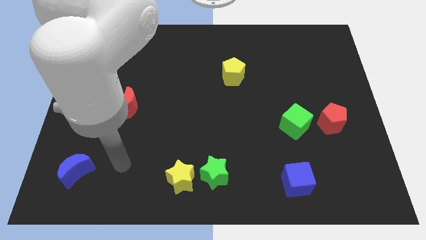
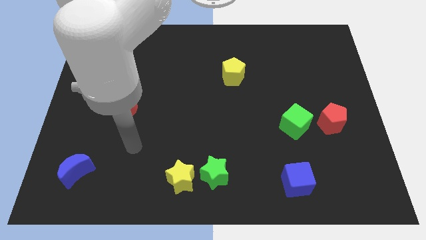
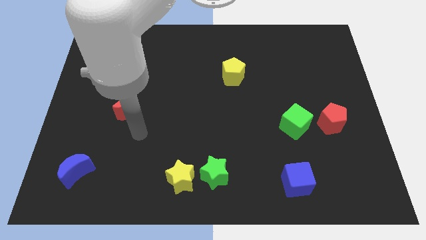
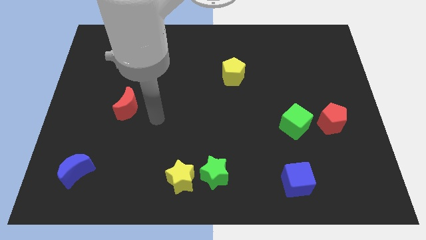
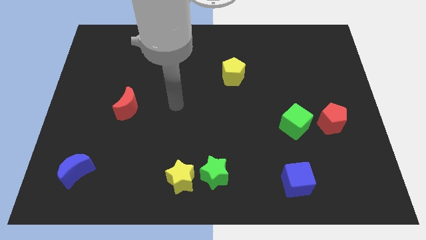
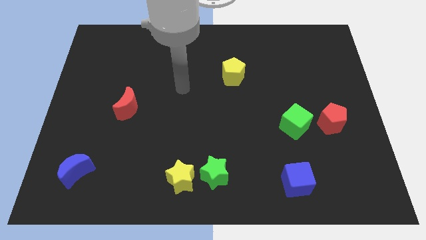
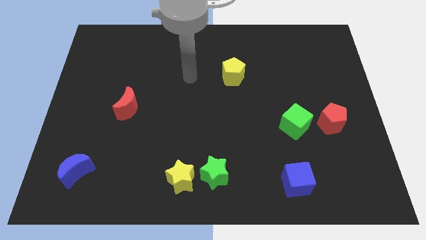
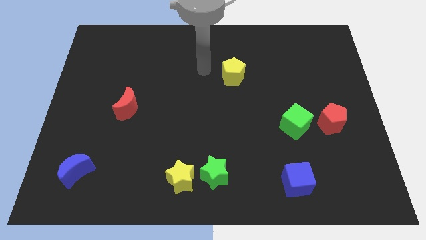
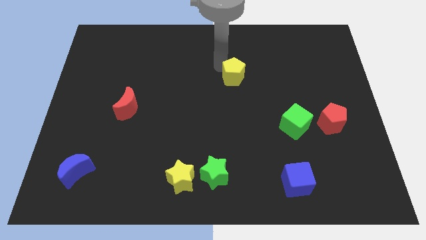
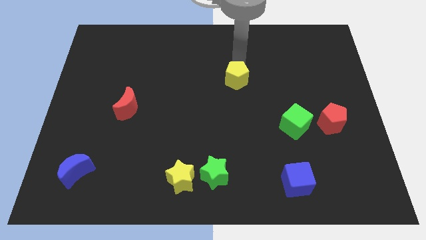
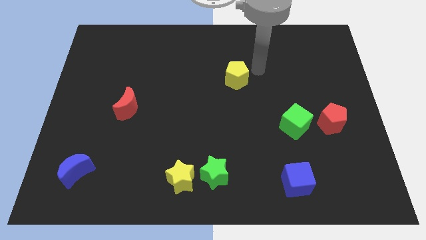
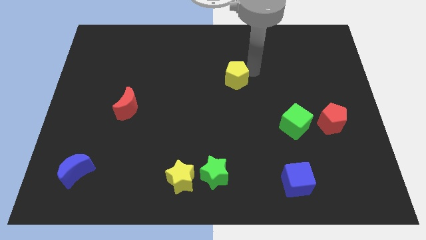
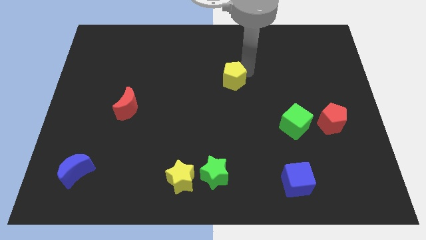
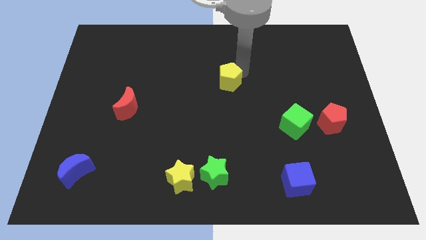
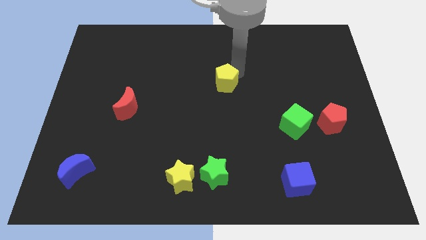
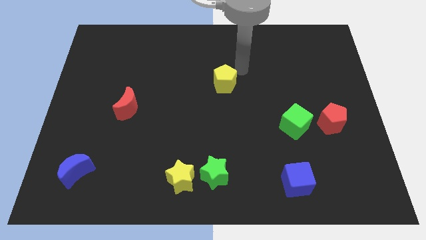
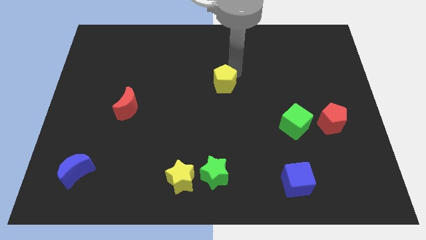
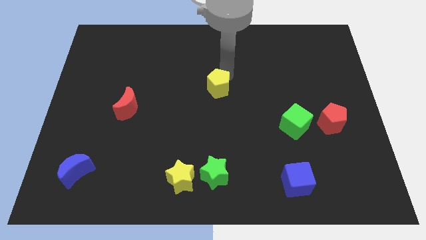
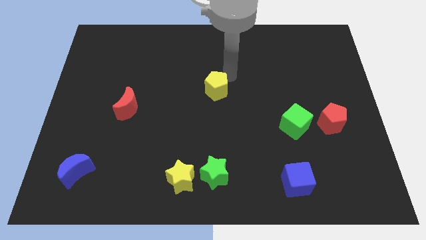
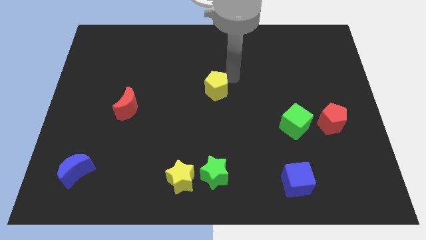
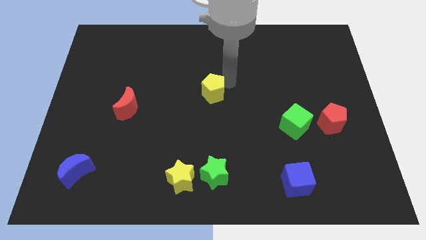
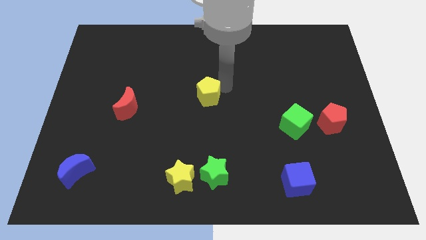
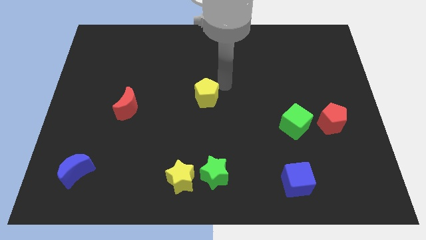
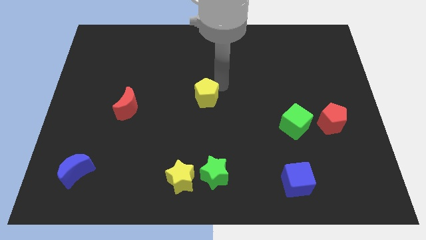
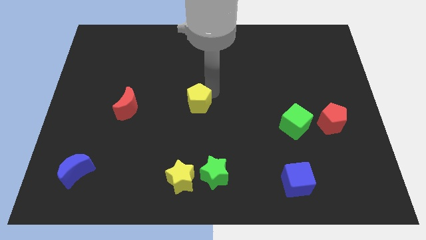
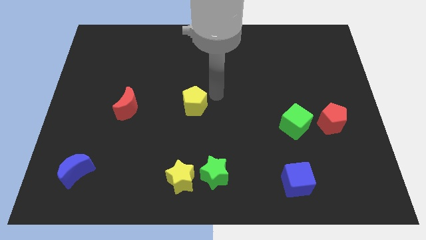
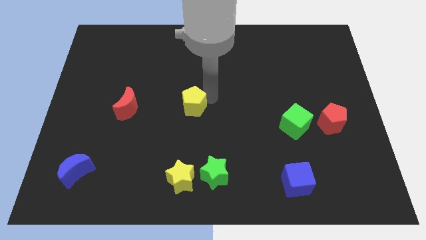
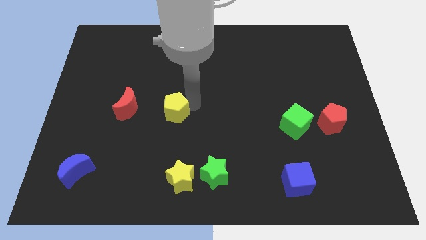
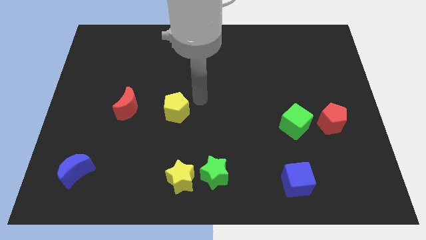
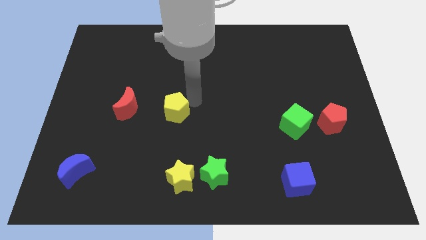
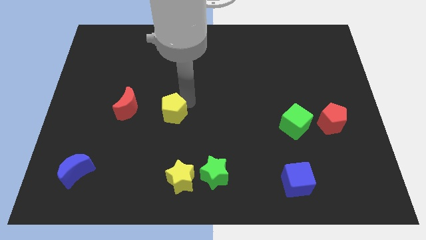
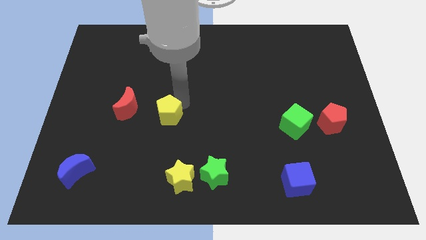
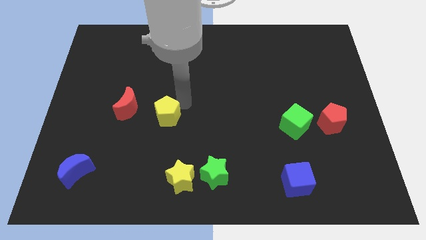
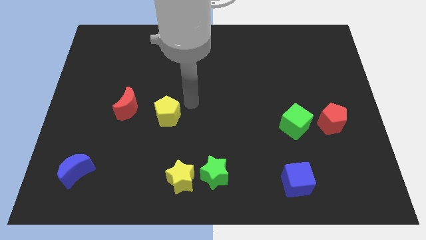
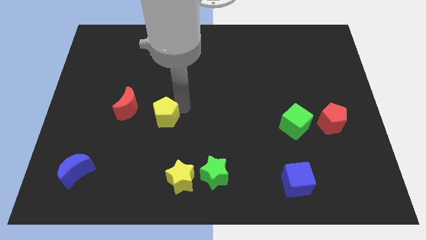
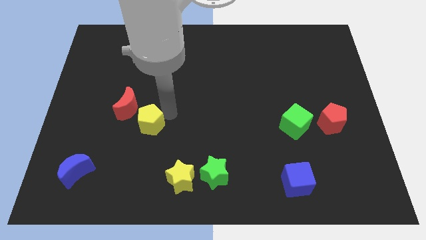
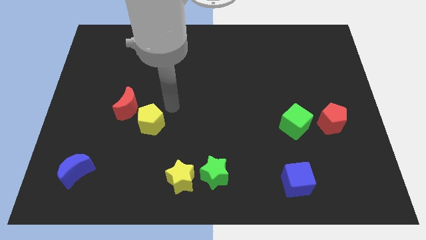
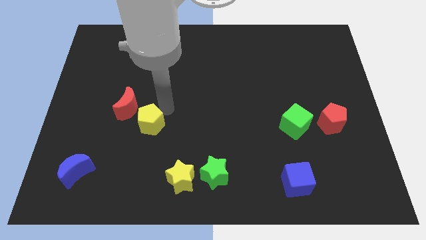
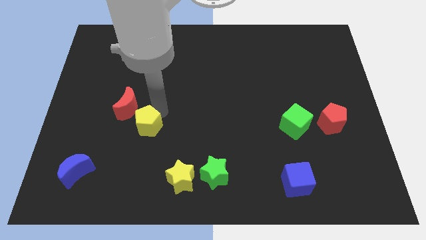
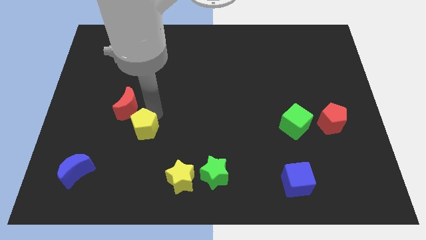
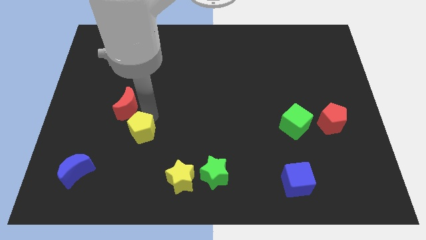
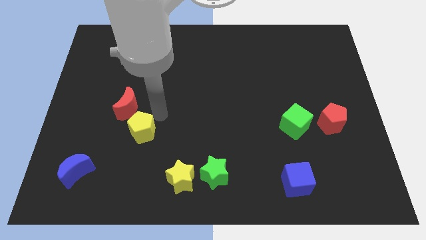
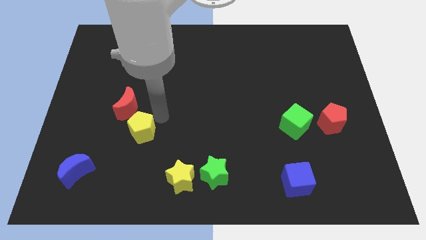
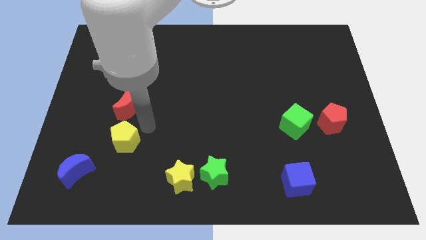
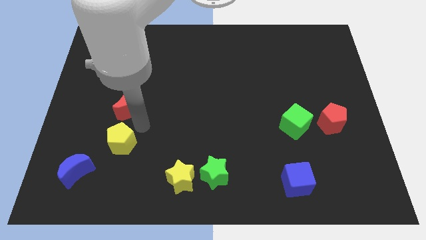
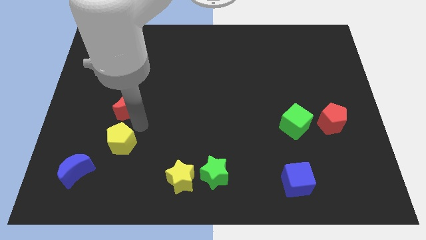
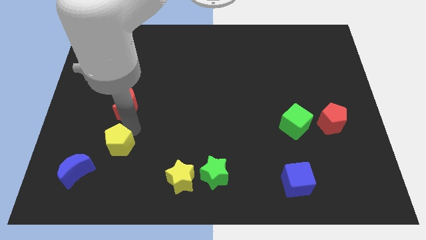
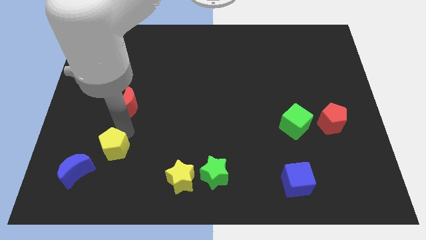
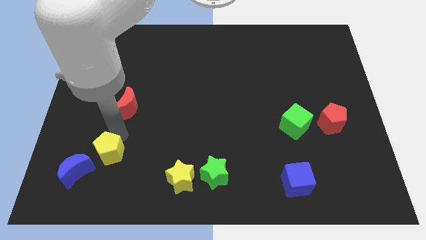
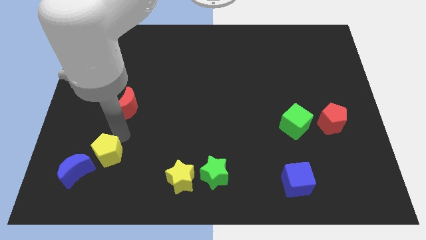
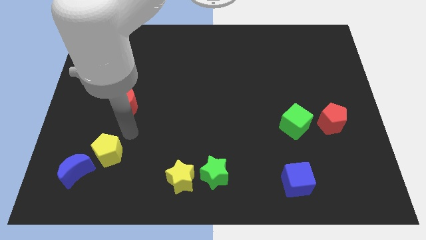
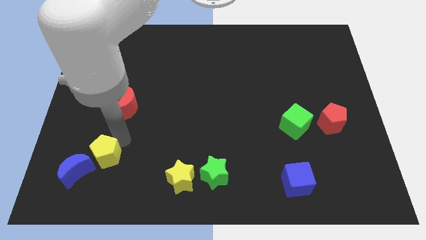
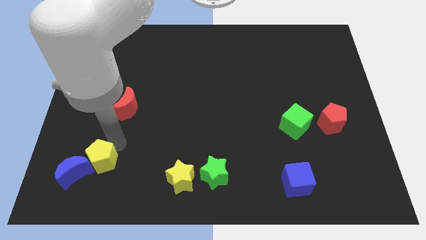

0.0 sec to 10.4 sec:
slide the yellow pentagon next to the blue moon

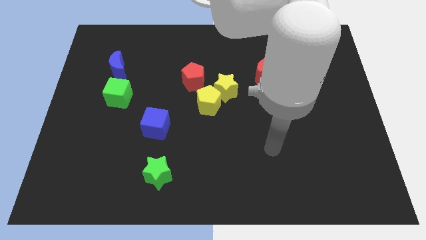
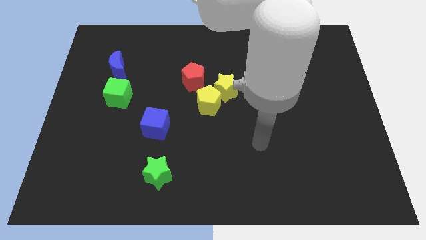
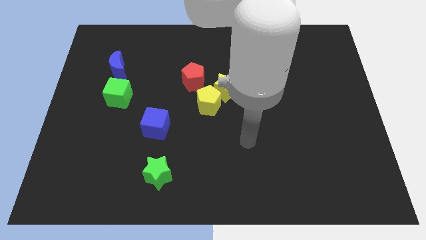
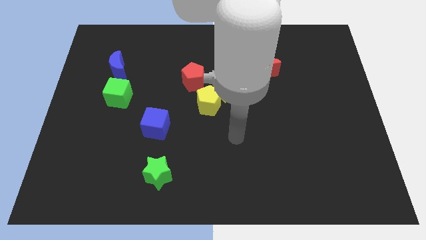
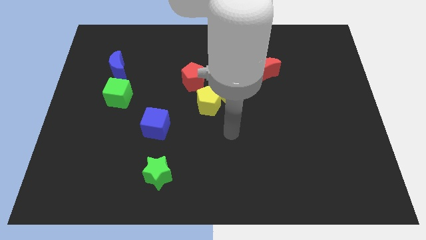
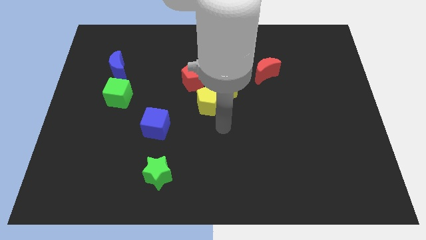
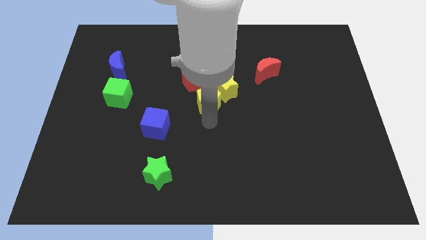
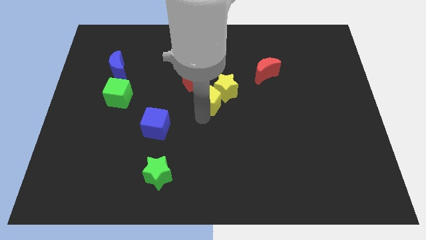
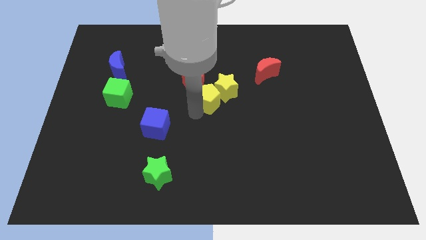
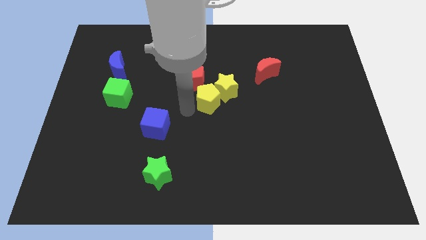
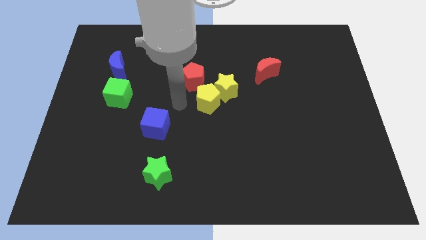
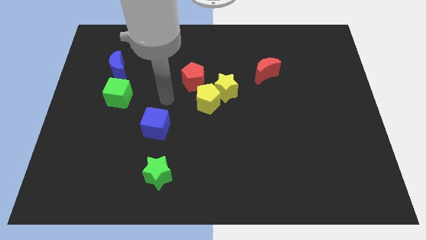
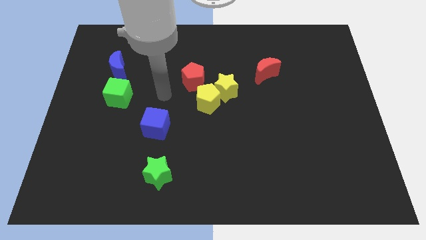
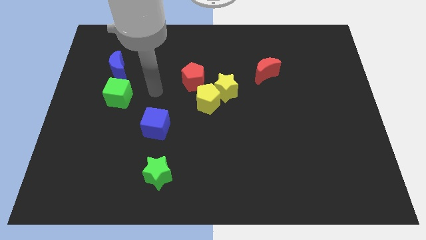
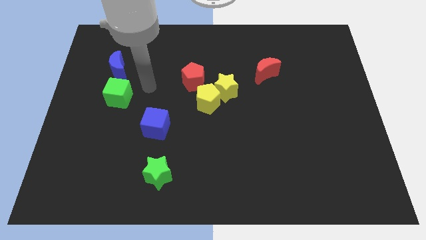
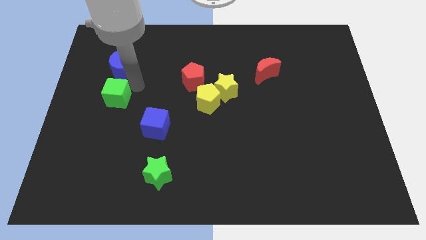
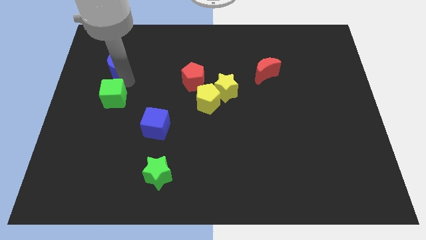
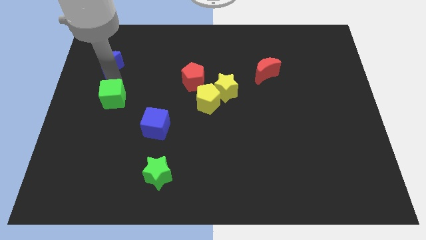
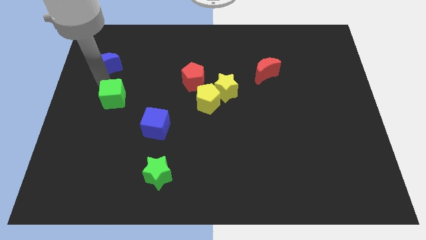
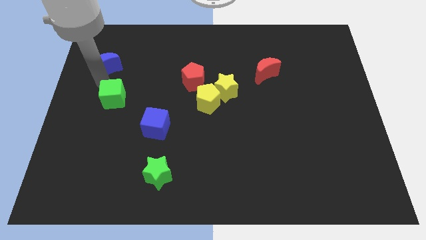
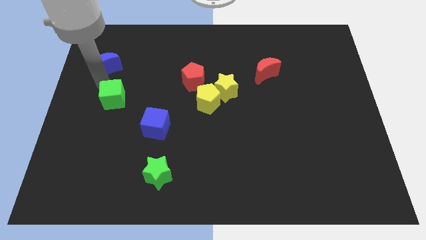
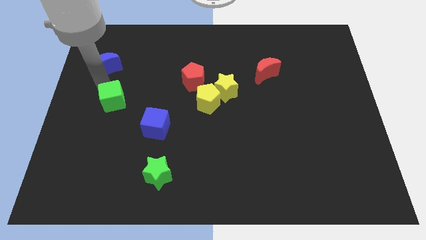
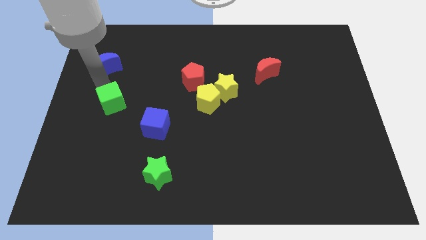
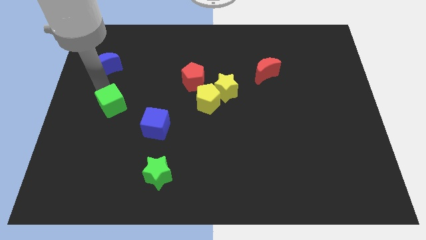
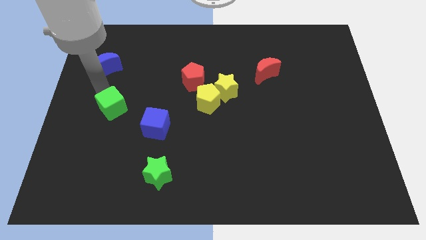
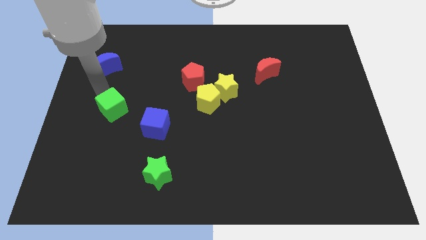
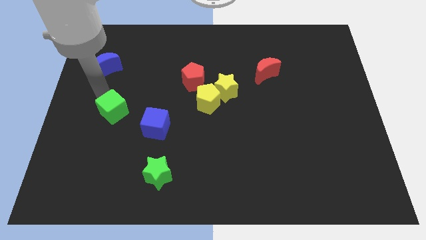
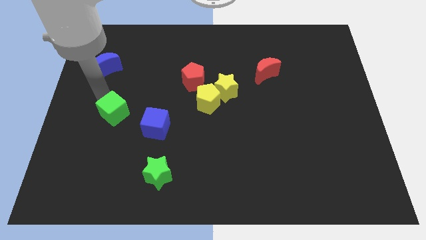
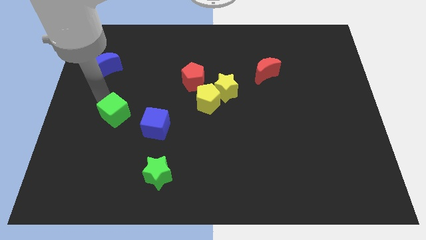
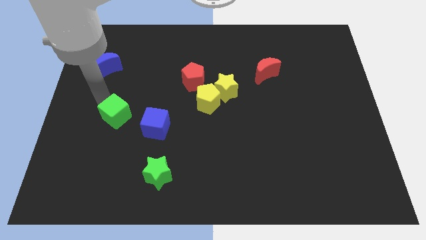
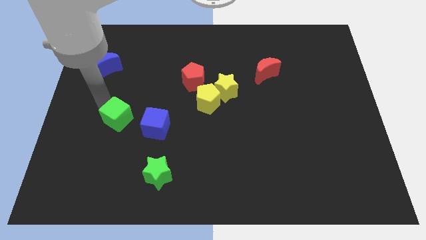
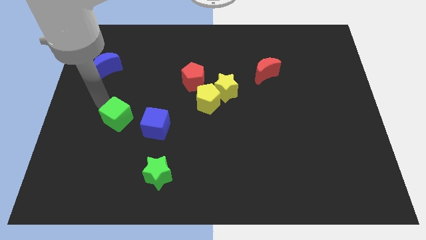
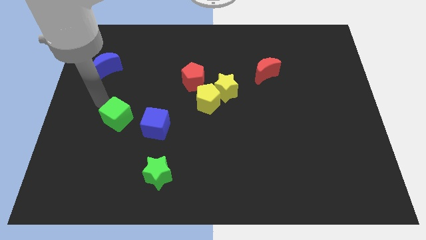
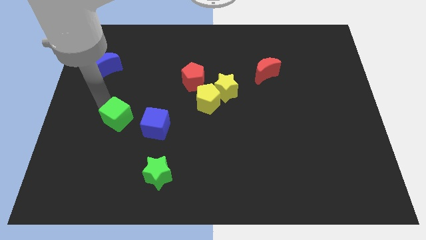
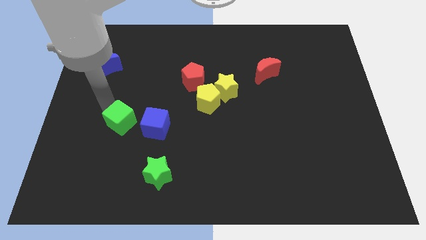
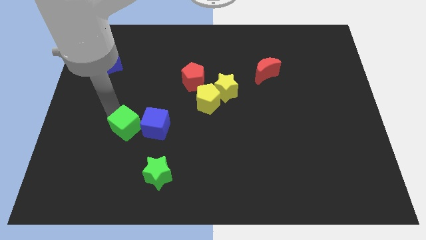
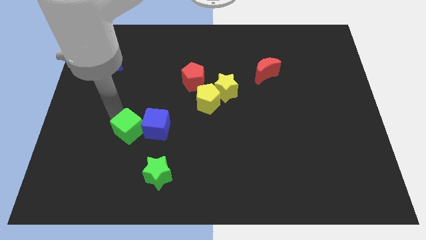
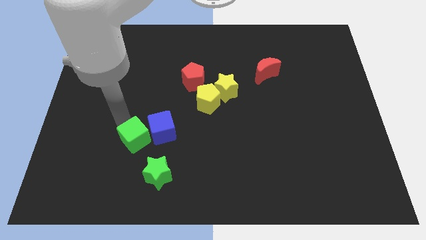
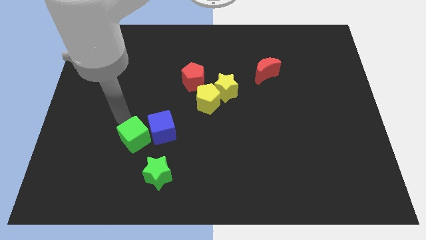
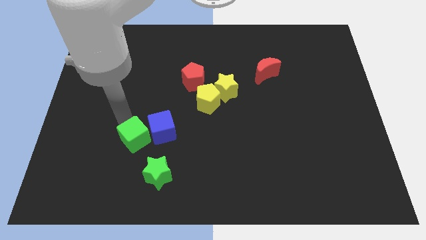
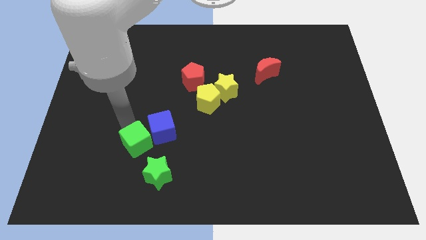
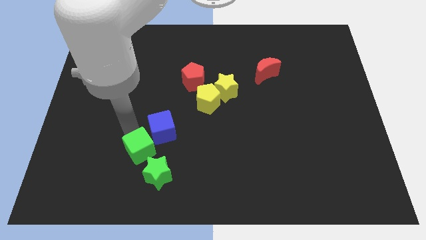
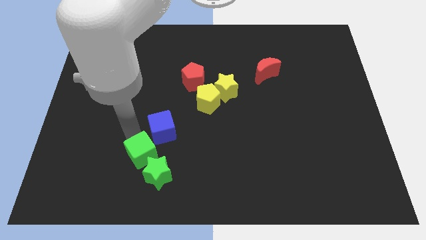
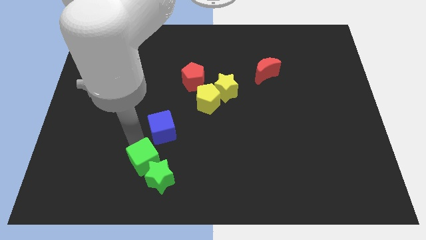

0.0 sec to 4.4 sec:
put the green cube close to the green star
